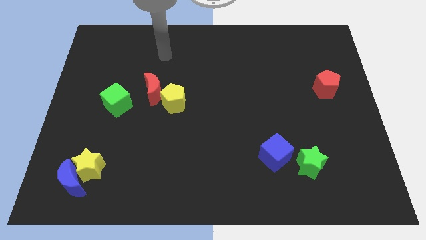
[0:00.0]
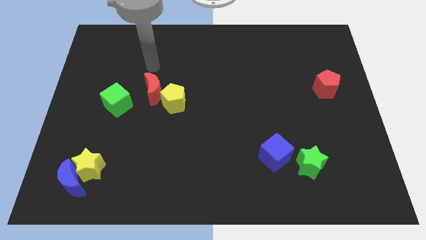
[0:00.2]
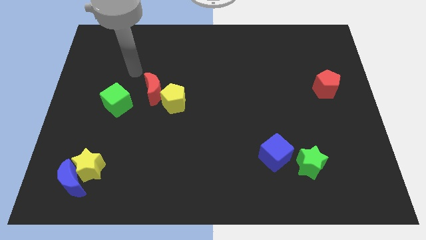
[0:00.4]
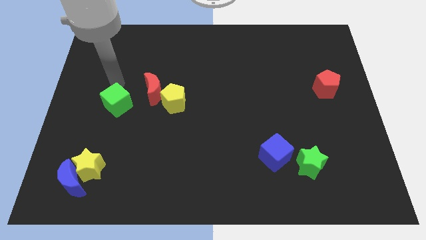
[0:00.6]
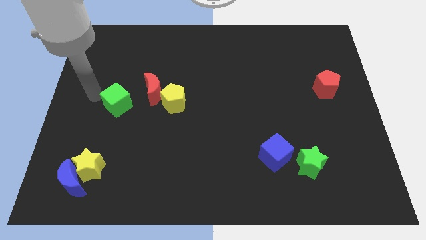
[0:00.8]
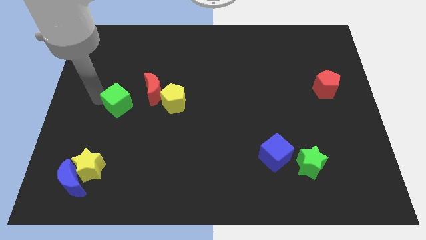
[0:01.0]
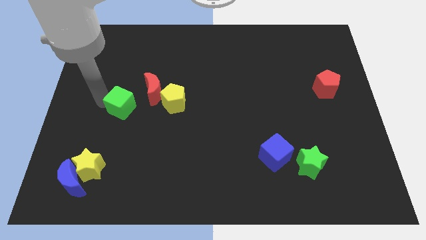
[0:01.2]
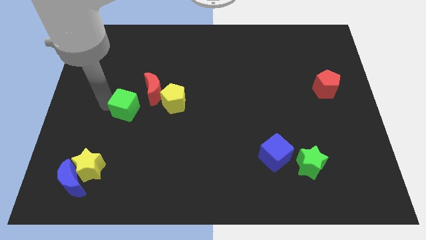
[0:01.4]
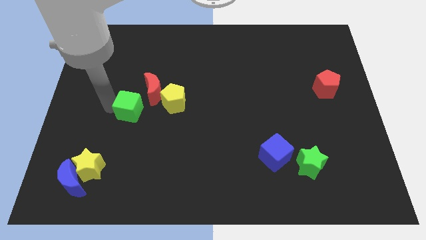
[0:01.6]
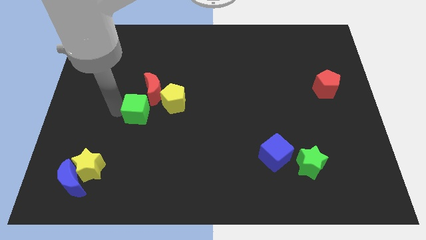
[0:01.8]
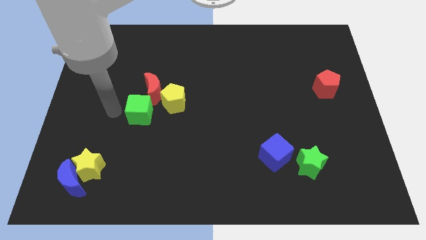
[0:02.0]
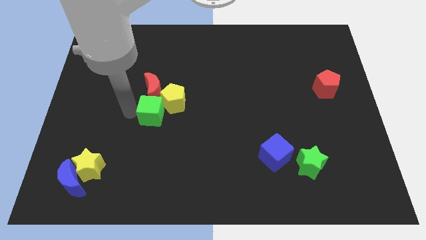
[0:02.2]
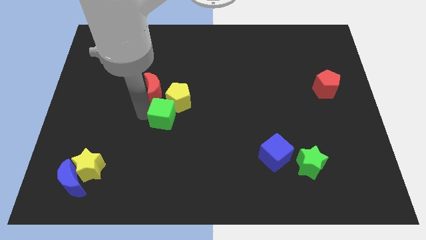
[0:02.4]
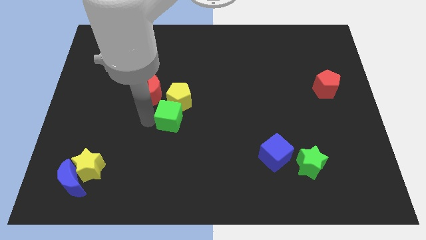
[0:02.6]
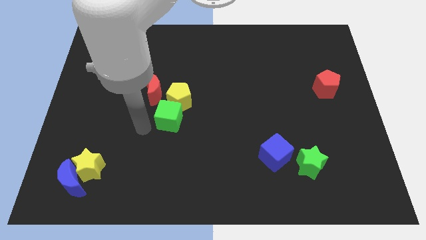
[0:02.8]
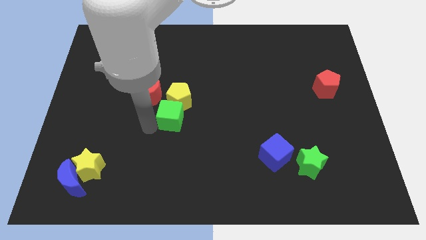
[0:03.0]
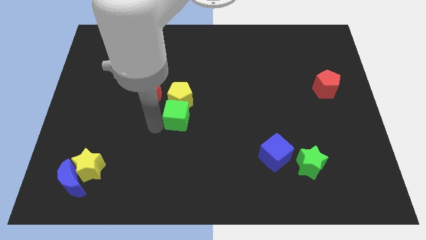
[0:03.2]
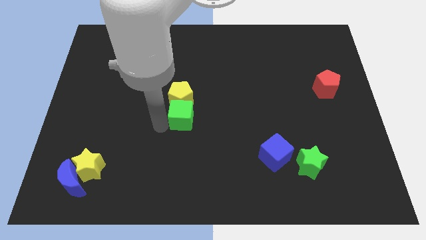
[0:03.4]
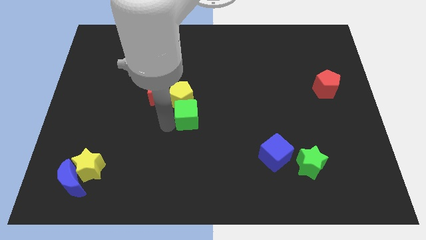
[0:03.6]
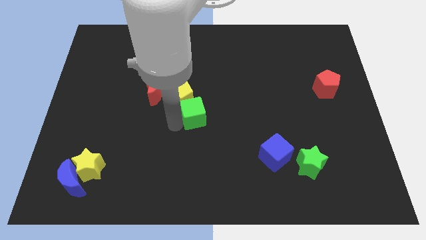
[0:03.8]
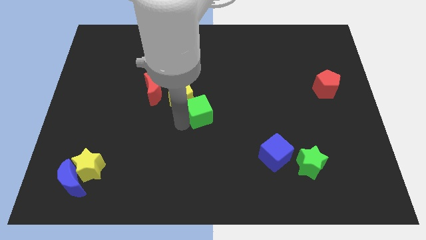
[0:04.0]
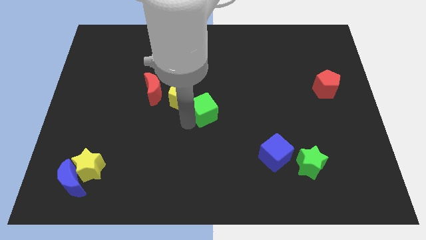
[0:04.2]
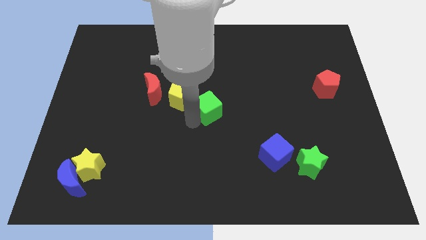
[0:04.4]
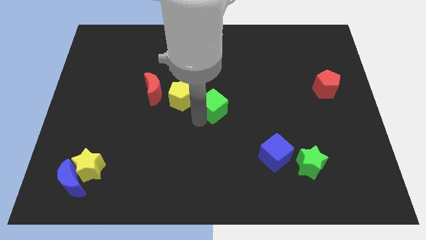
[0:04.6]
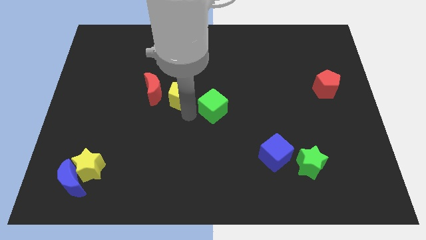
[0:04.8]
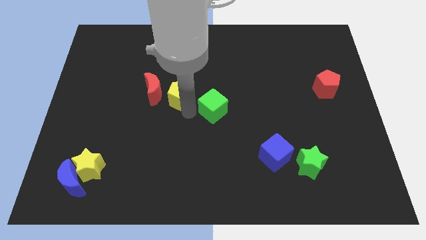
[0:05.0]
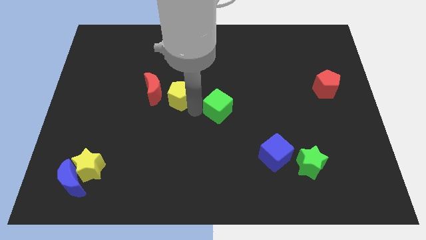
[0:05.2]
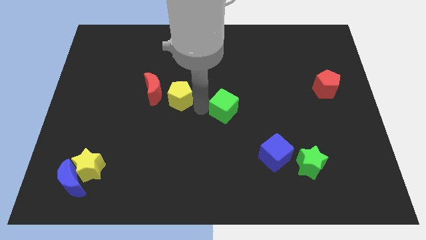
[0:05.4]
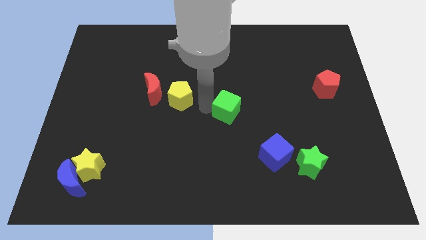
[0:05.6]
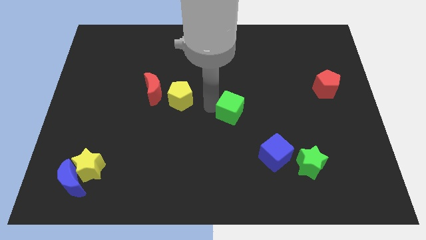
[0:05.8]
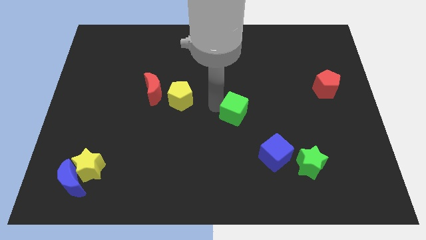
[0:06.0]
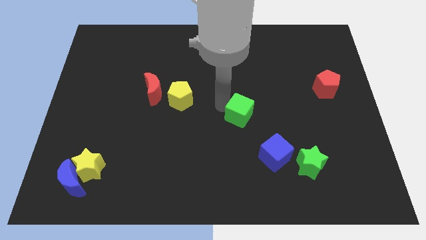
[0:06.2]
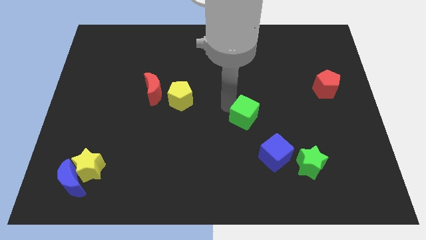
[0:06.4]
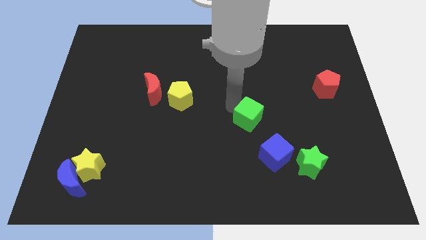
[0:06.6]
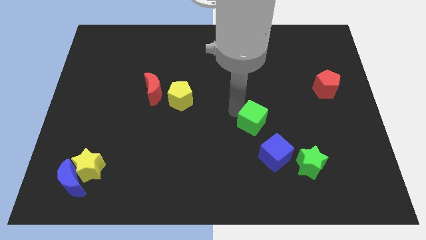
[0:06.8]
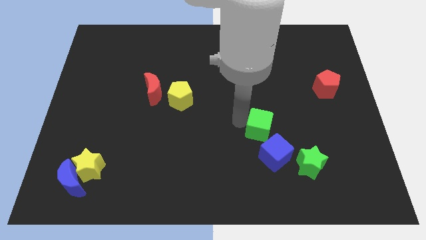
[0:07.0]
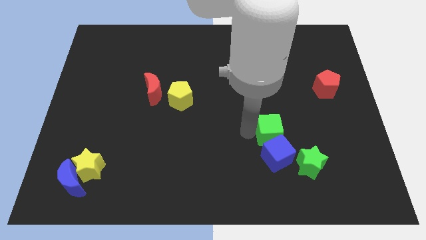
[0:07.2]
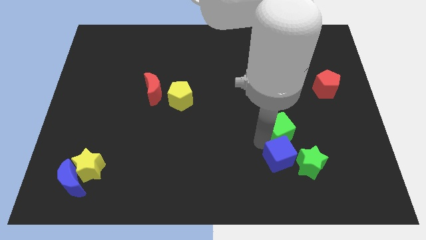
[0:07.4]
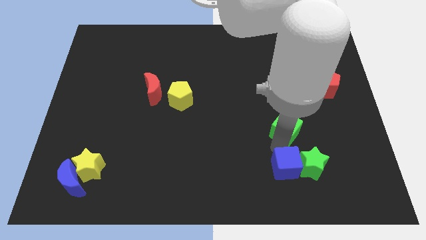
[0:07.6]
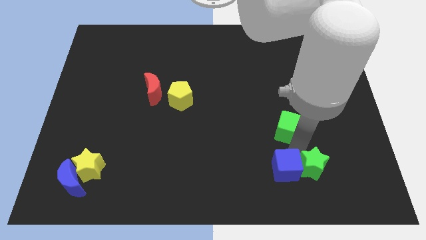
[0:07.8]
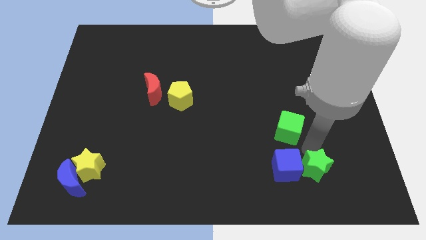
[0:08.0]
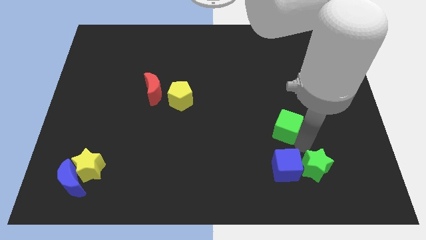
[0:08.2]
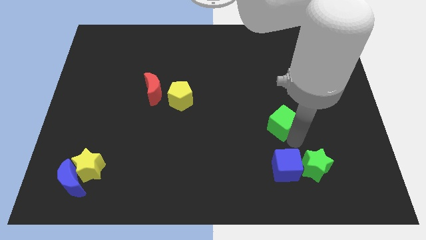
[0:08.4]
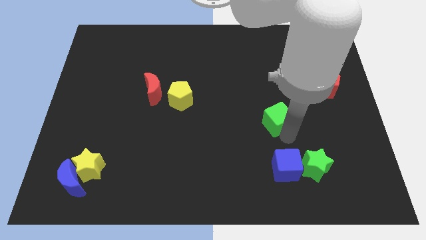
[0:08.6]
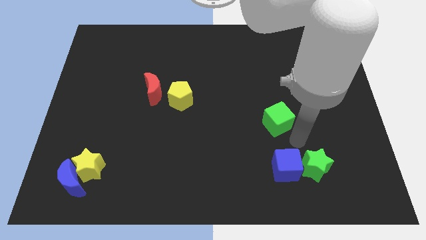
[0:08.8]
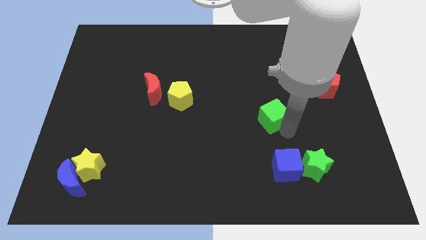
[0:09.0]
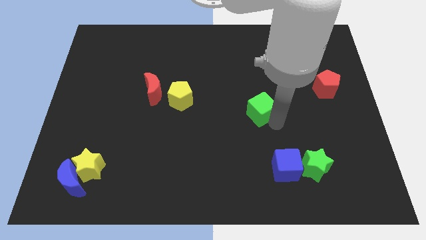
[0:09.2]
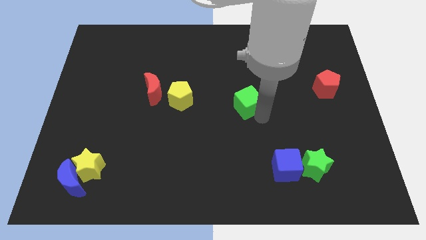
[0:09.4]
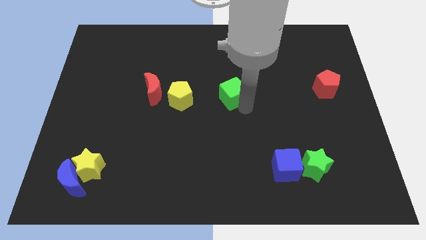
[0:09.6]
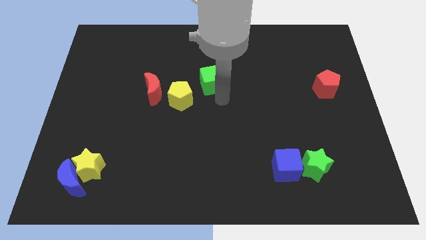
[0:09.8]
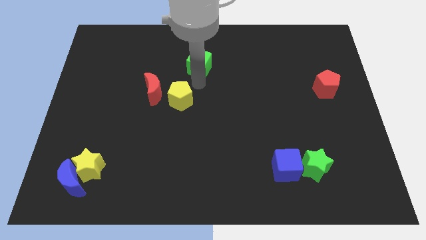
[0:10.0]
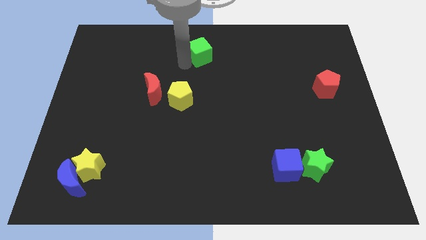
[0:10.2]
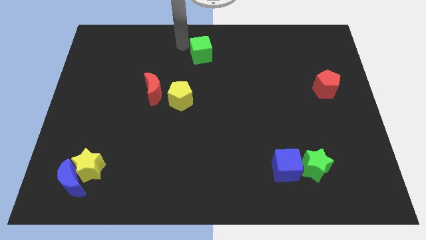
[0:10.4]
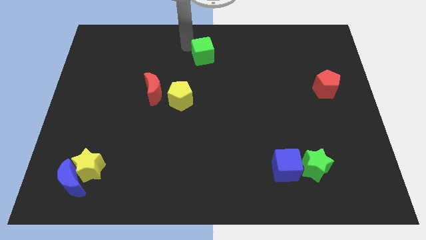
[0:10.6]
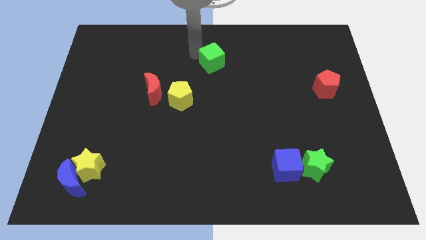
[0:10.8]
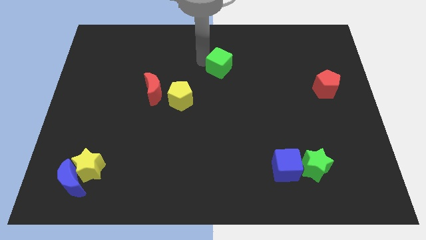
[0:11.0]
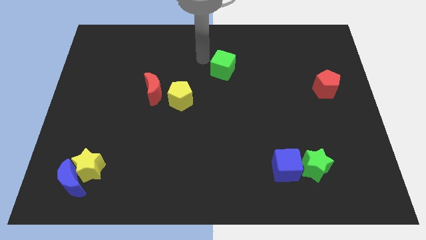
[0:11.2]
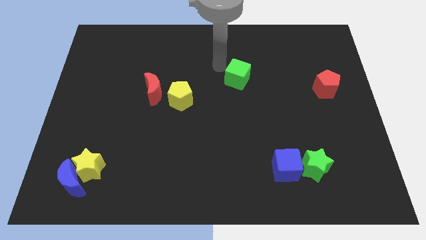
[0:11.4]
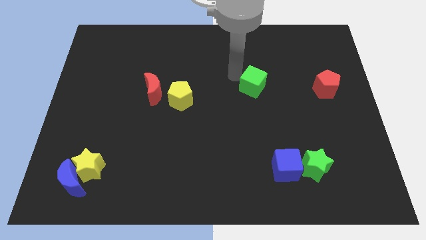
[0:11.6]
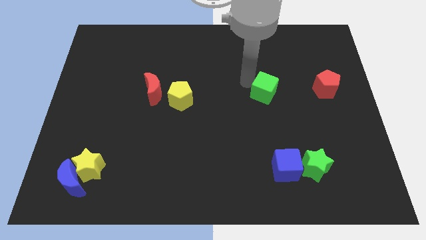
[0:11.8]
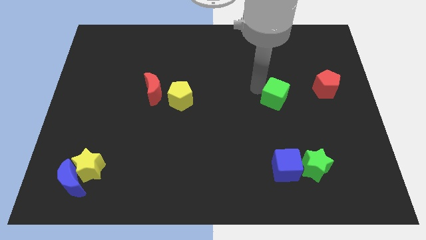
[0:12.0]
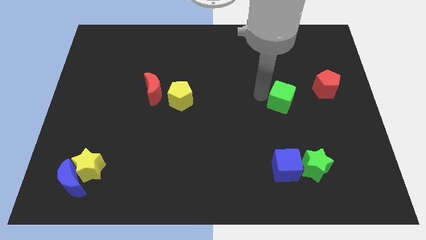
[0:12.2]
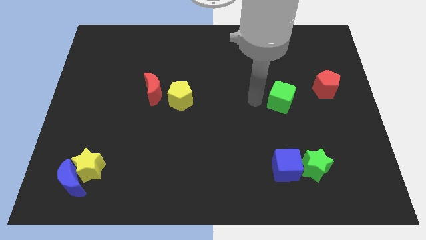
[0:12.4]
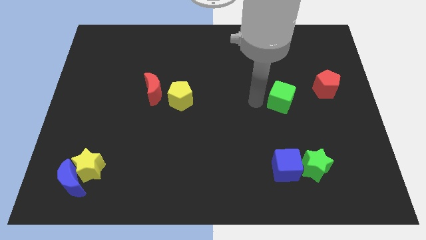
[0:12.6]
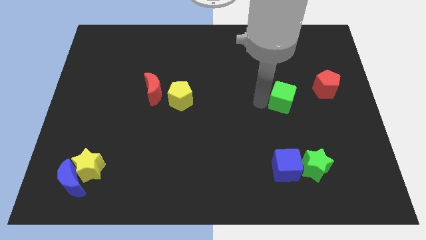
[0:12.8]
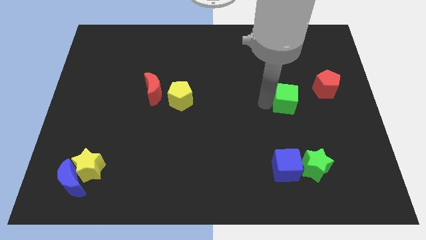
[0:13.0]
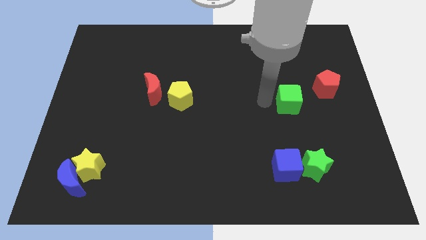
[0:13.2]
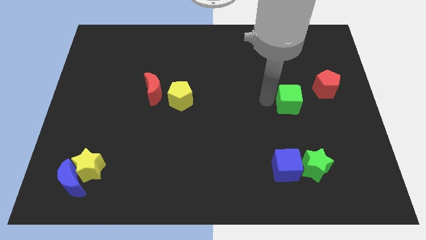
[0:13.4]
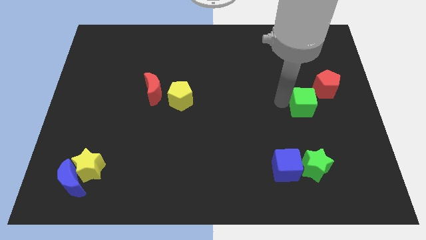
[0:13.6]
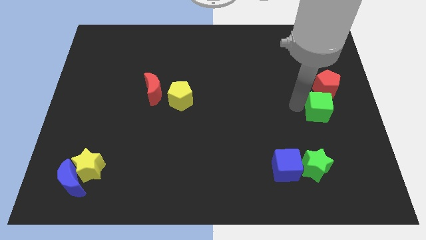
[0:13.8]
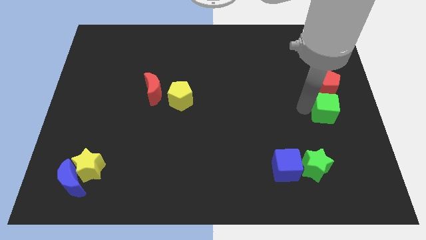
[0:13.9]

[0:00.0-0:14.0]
move the green cube to the right side of the board
